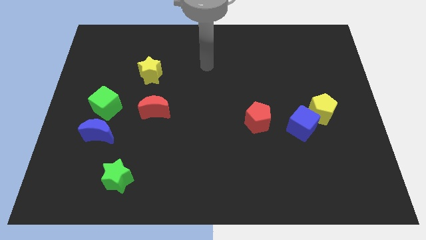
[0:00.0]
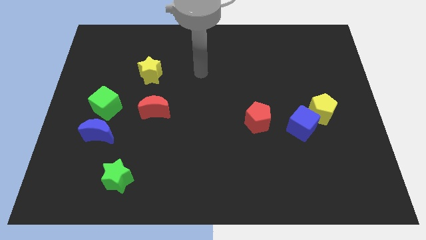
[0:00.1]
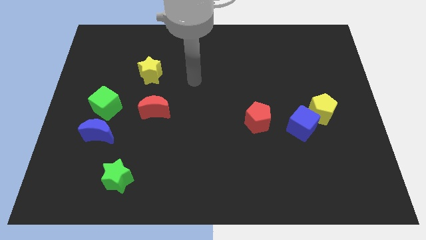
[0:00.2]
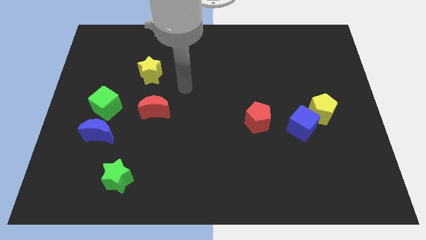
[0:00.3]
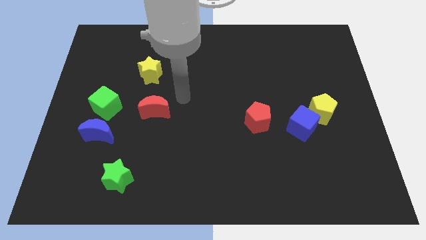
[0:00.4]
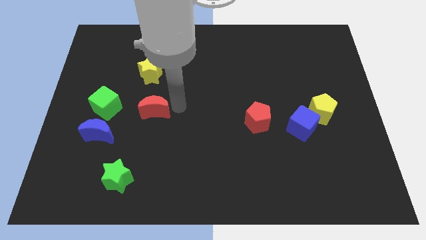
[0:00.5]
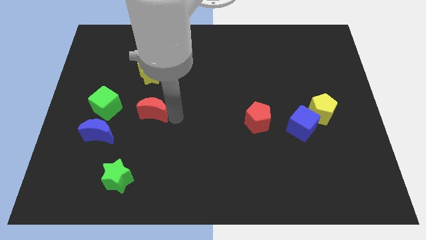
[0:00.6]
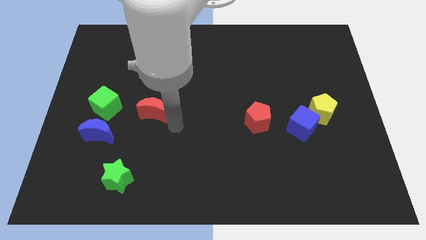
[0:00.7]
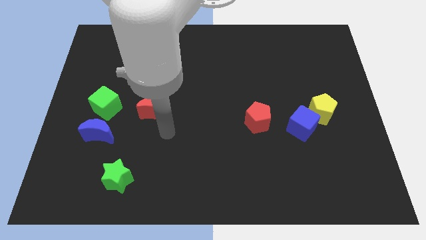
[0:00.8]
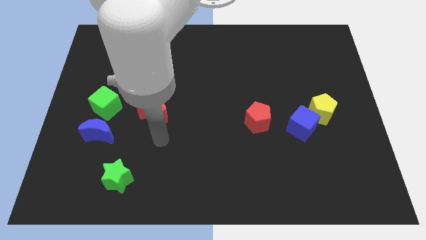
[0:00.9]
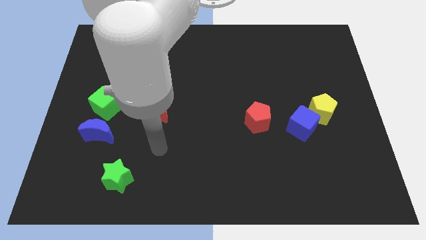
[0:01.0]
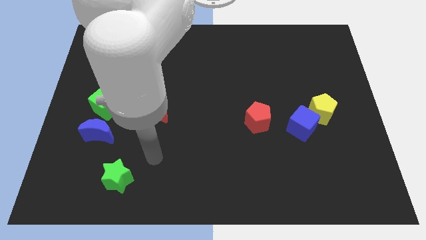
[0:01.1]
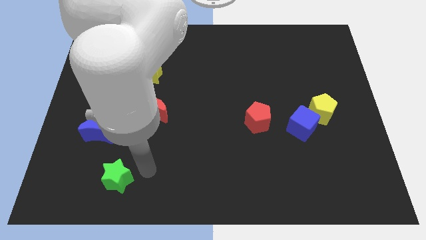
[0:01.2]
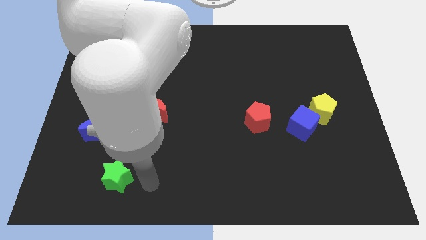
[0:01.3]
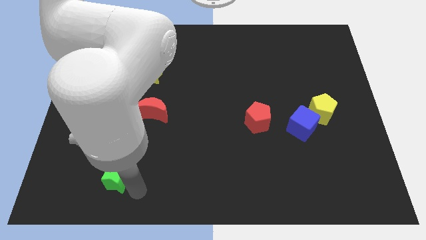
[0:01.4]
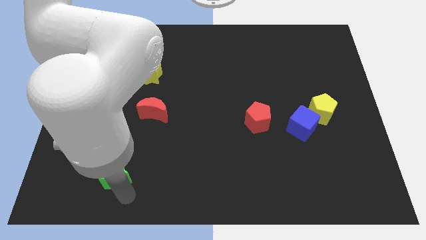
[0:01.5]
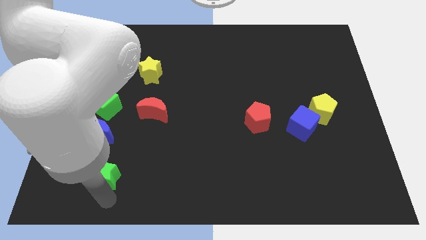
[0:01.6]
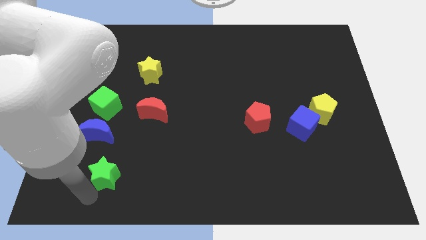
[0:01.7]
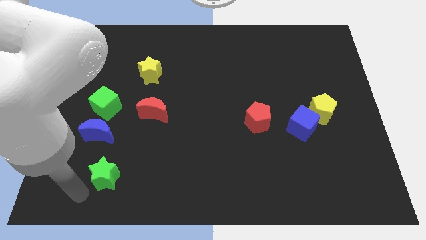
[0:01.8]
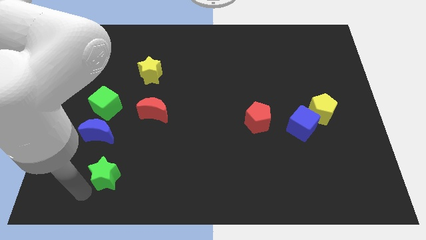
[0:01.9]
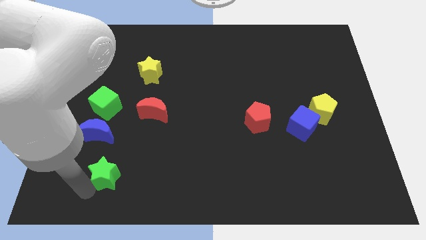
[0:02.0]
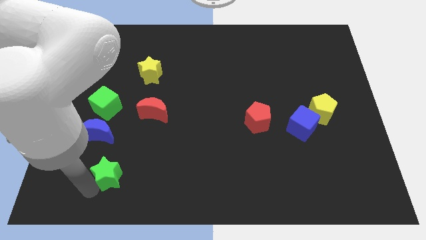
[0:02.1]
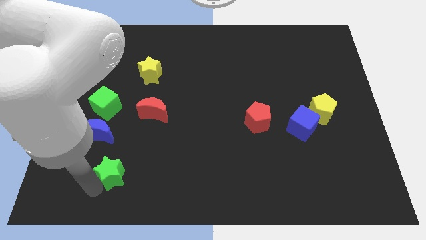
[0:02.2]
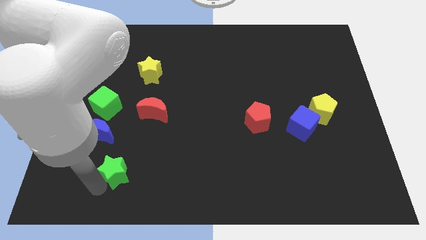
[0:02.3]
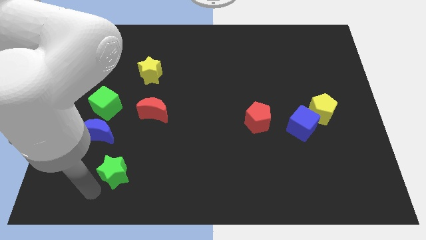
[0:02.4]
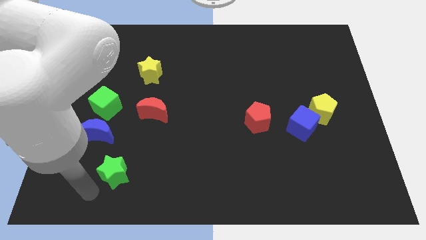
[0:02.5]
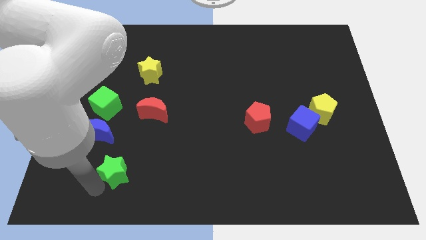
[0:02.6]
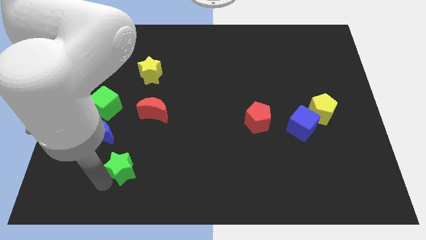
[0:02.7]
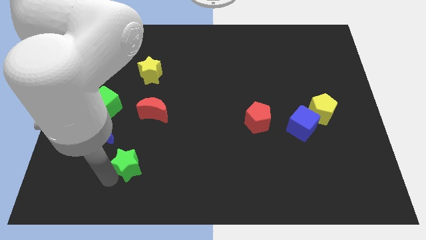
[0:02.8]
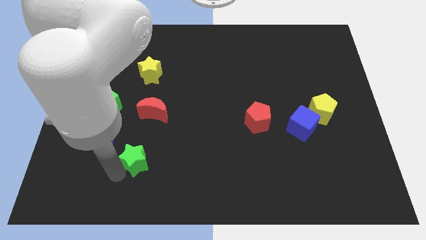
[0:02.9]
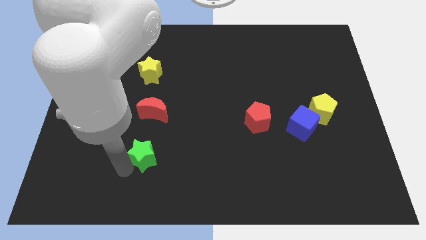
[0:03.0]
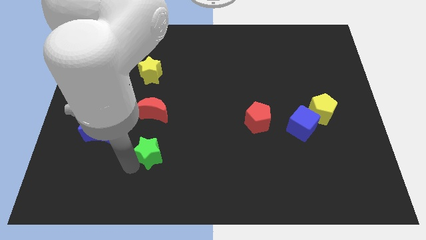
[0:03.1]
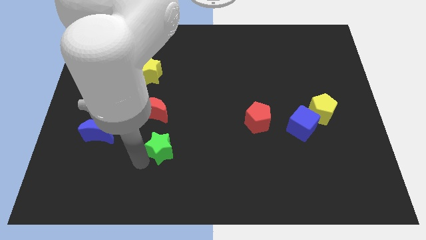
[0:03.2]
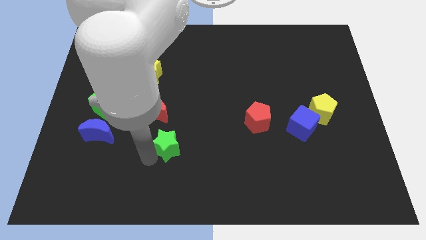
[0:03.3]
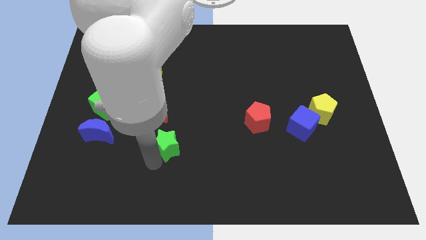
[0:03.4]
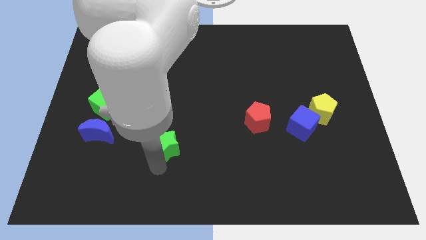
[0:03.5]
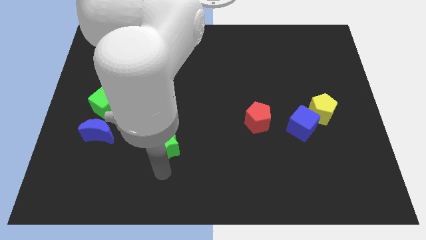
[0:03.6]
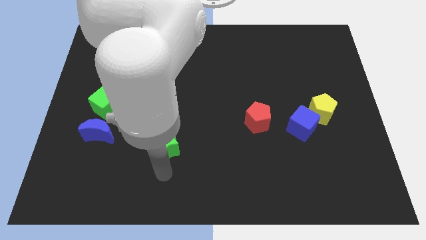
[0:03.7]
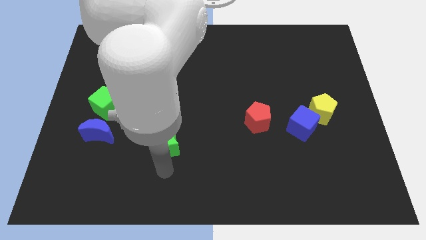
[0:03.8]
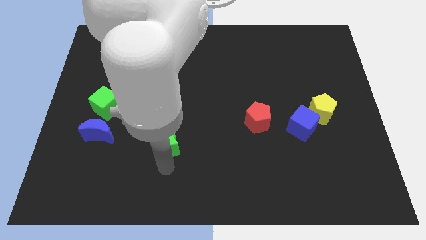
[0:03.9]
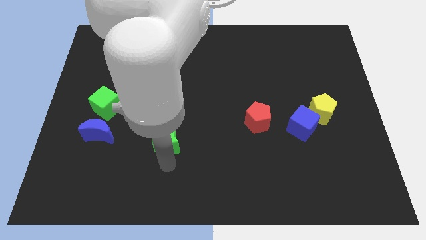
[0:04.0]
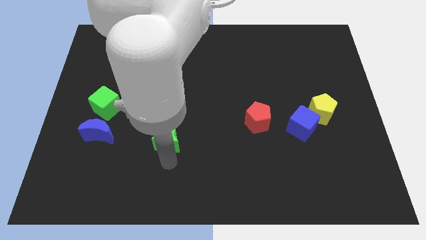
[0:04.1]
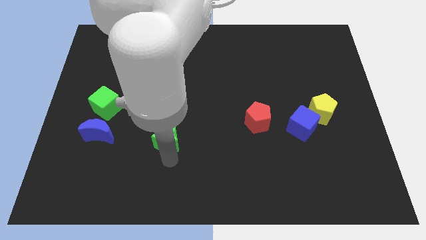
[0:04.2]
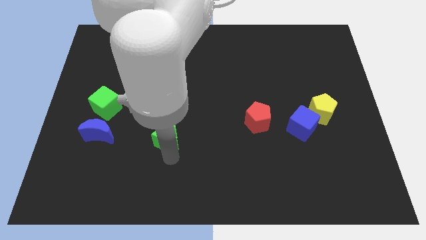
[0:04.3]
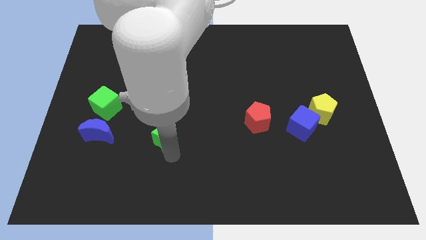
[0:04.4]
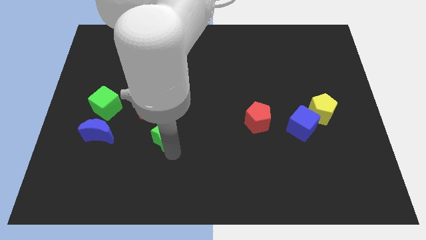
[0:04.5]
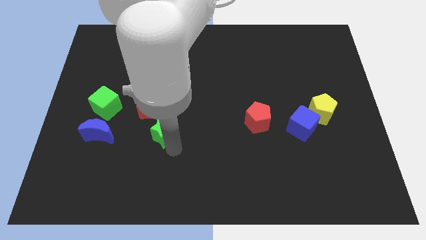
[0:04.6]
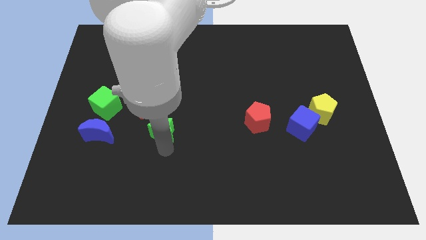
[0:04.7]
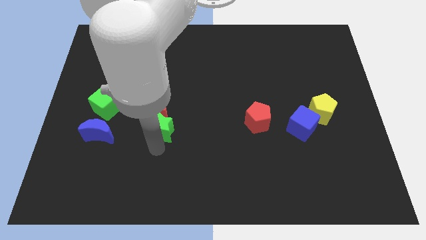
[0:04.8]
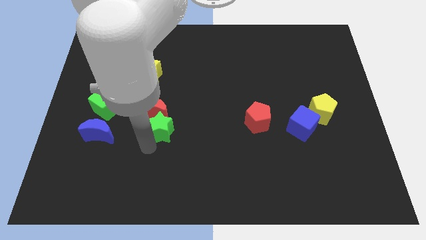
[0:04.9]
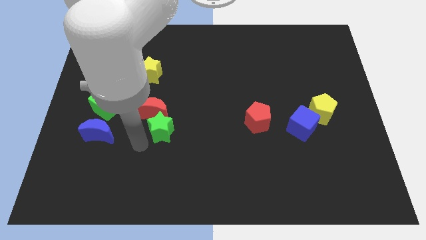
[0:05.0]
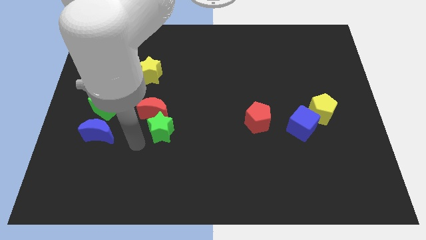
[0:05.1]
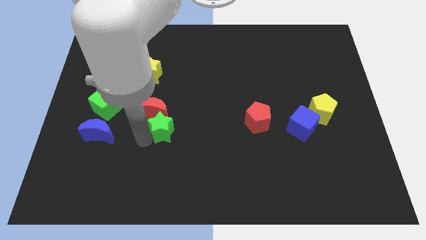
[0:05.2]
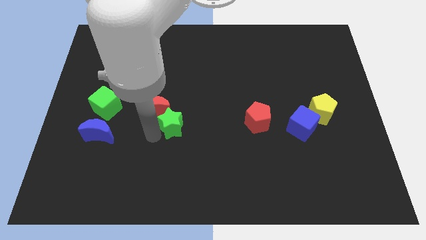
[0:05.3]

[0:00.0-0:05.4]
slide the green star to the right side of the red moon
